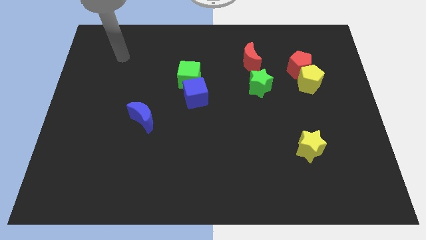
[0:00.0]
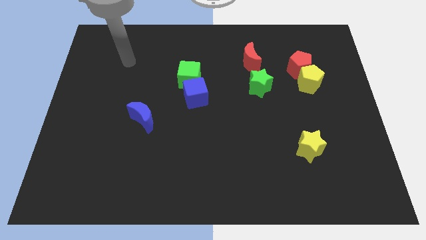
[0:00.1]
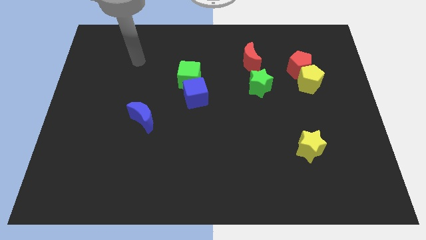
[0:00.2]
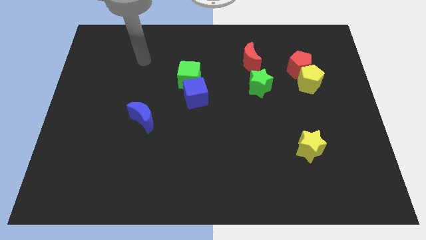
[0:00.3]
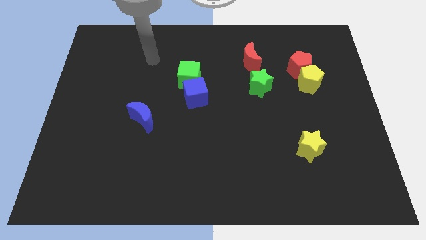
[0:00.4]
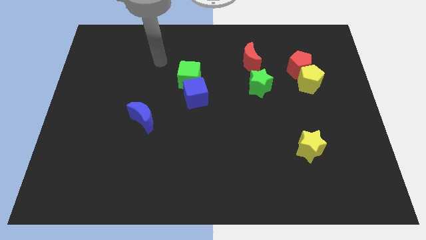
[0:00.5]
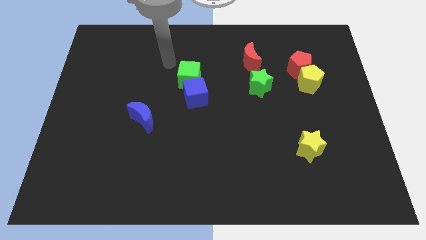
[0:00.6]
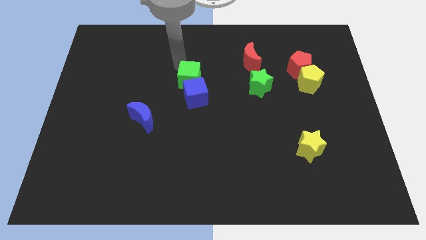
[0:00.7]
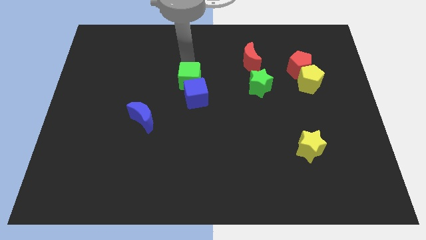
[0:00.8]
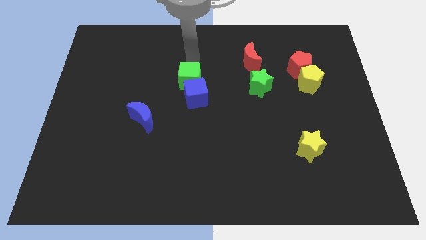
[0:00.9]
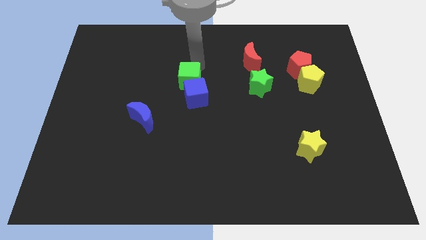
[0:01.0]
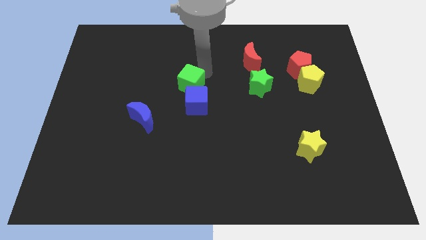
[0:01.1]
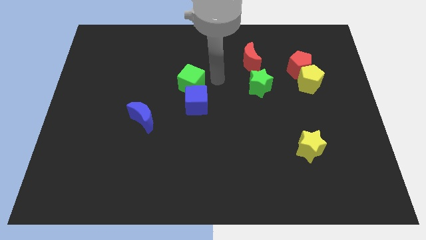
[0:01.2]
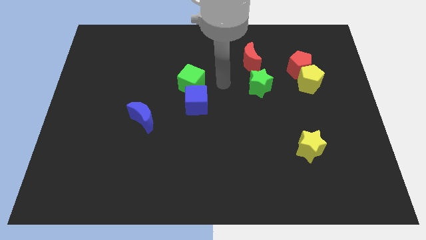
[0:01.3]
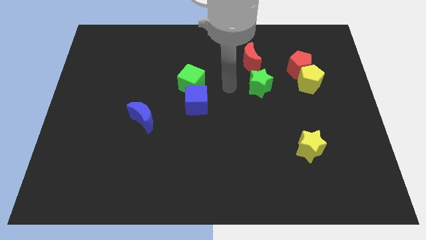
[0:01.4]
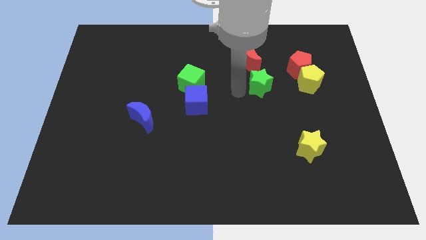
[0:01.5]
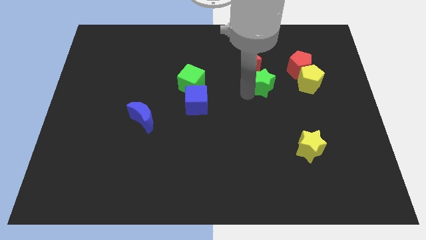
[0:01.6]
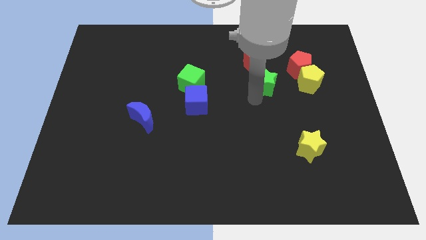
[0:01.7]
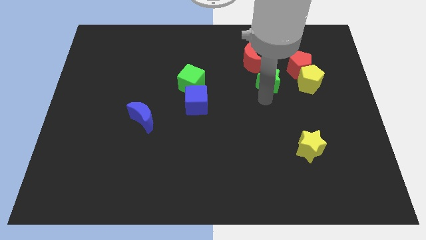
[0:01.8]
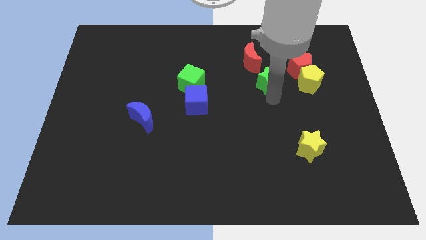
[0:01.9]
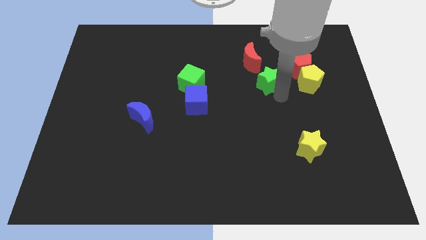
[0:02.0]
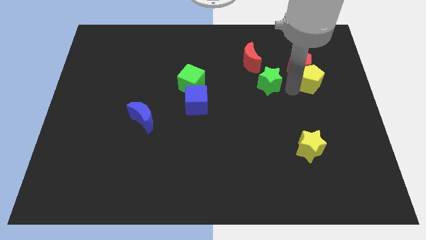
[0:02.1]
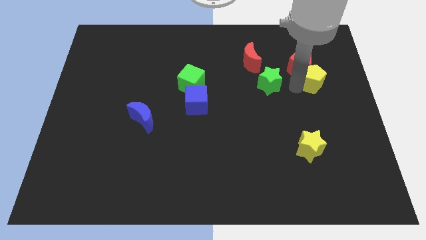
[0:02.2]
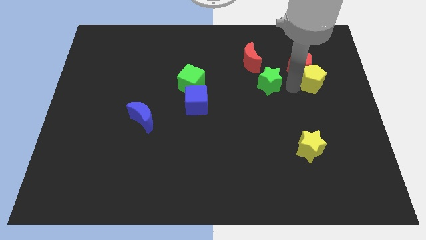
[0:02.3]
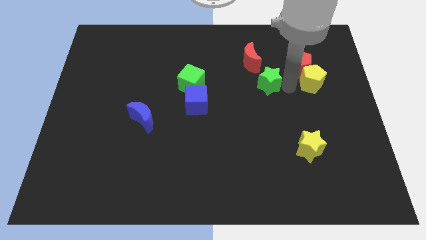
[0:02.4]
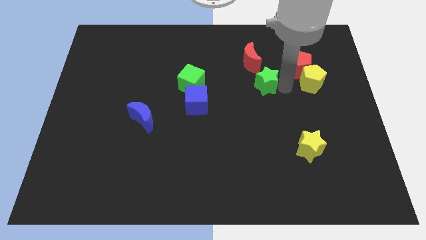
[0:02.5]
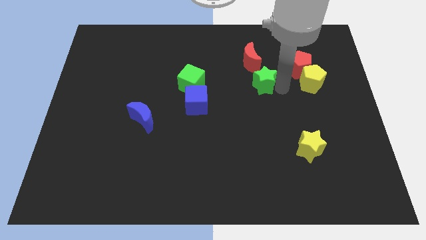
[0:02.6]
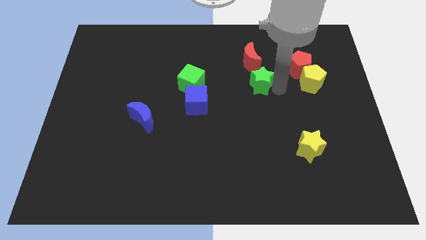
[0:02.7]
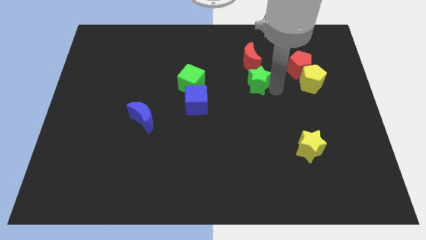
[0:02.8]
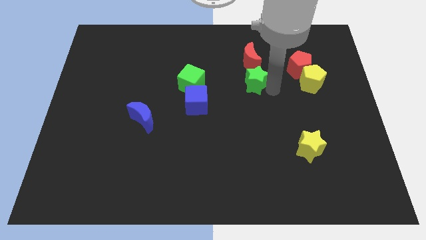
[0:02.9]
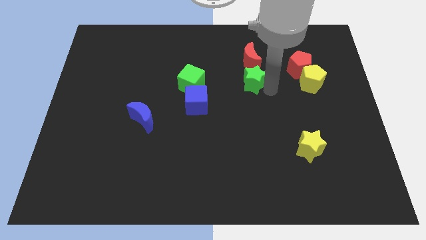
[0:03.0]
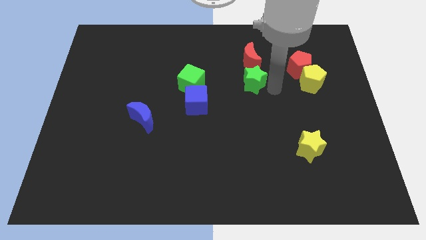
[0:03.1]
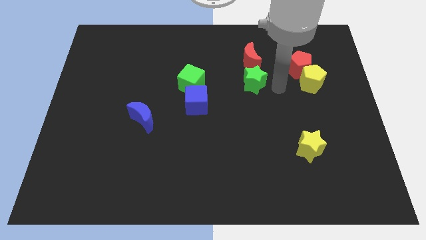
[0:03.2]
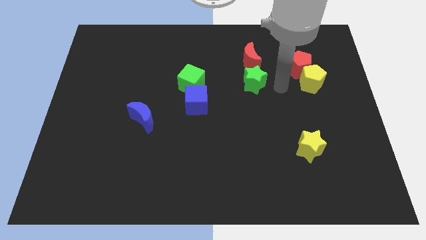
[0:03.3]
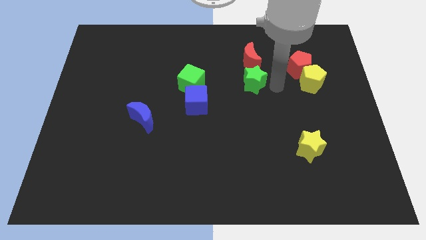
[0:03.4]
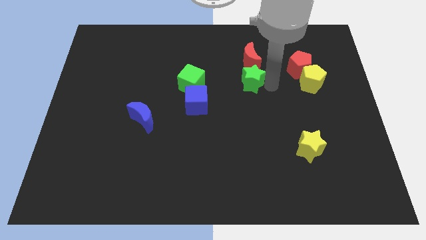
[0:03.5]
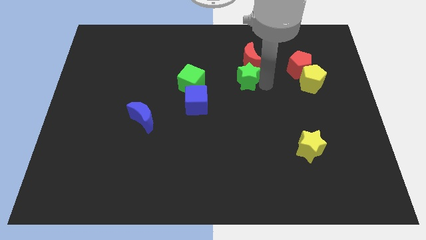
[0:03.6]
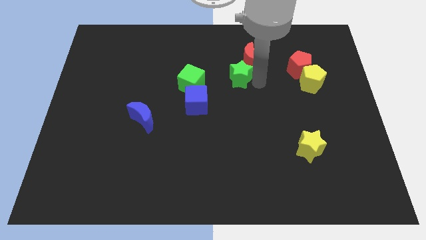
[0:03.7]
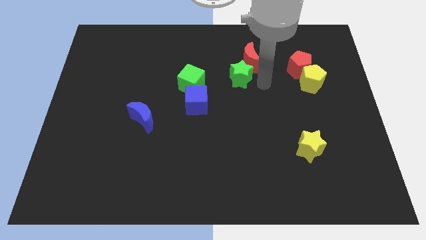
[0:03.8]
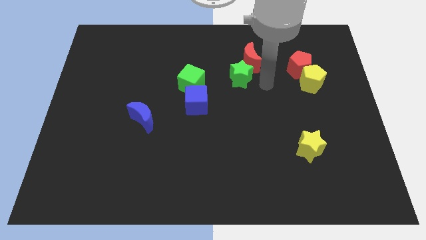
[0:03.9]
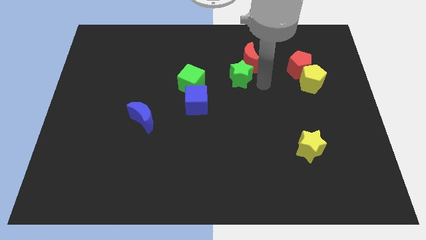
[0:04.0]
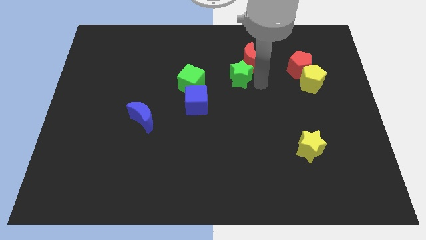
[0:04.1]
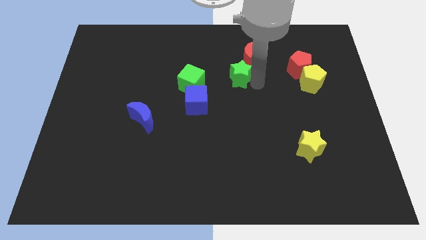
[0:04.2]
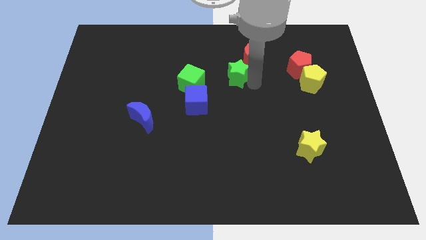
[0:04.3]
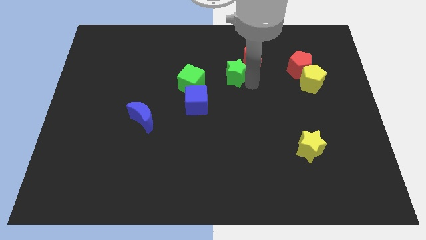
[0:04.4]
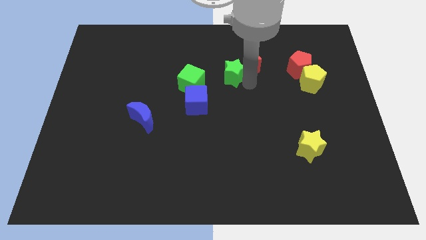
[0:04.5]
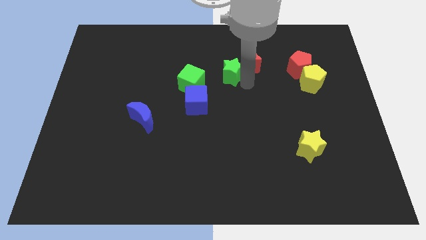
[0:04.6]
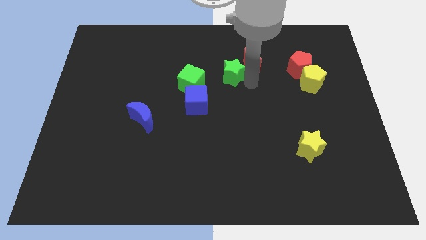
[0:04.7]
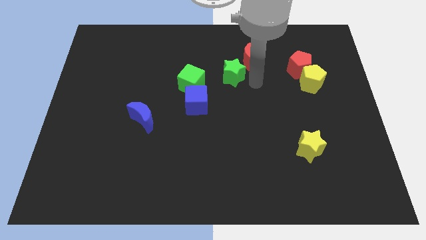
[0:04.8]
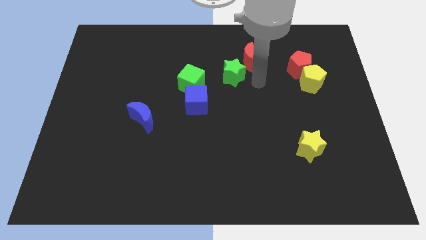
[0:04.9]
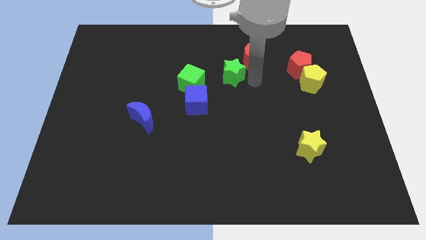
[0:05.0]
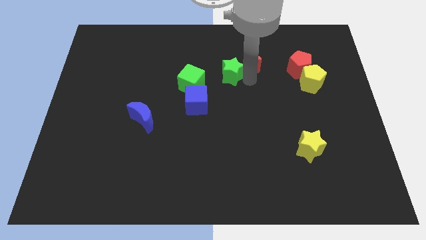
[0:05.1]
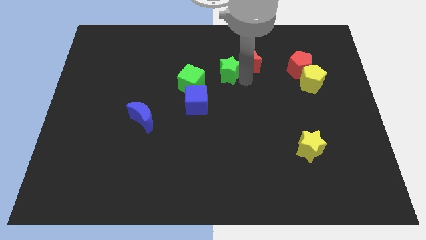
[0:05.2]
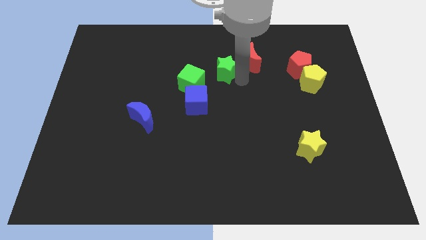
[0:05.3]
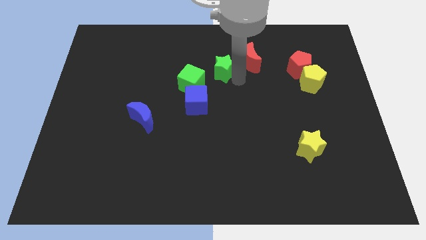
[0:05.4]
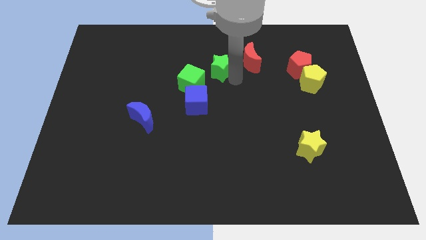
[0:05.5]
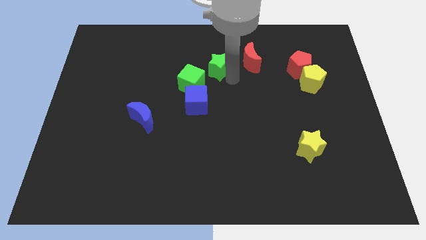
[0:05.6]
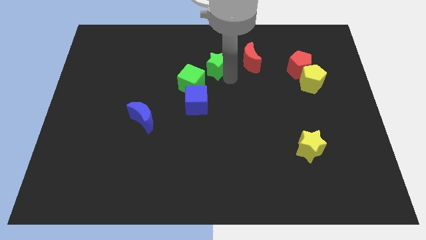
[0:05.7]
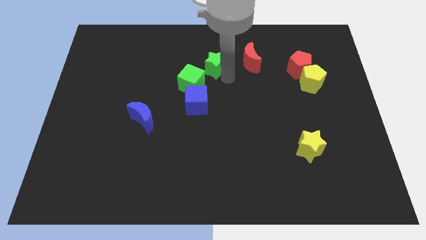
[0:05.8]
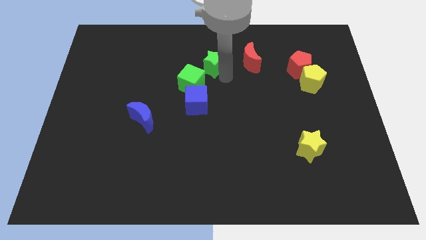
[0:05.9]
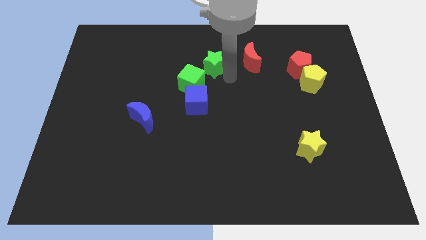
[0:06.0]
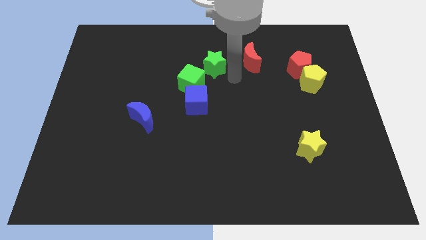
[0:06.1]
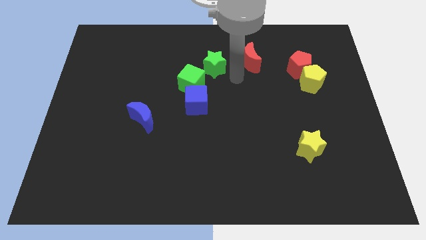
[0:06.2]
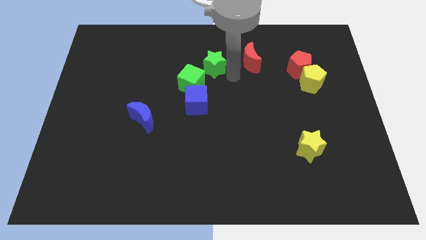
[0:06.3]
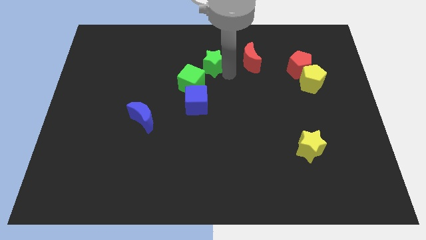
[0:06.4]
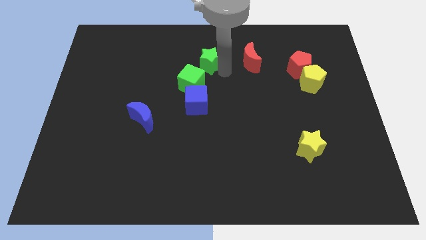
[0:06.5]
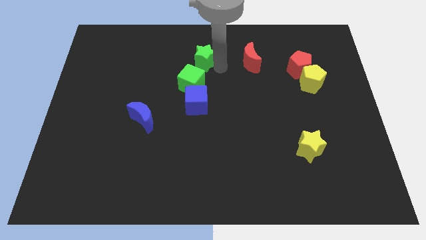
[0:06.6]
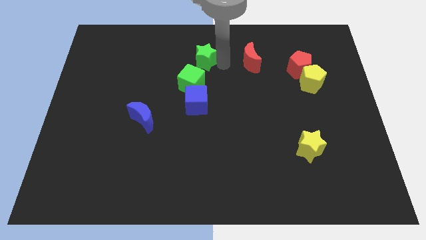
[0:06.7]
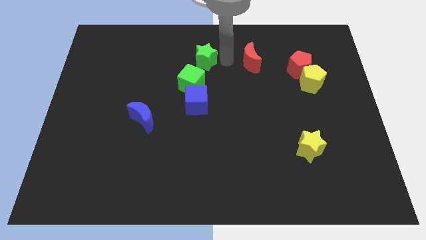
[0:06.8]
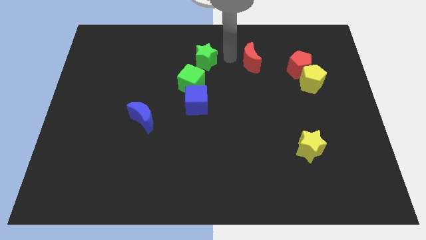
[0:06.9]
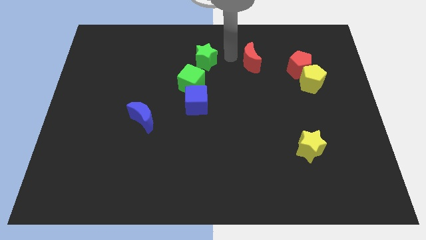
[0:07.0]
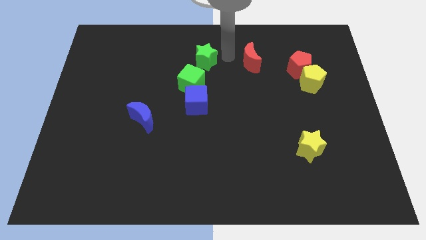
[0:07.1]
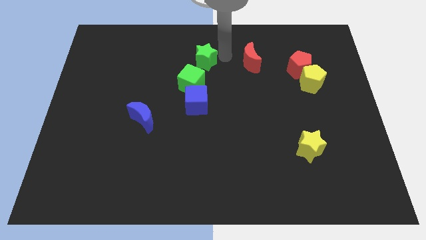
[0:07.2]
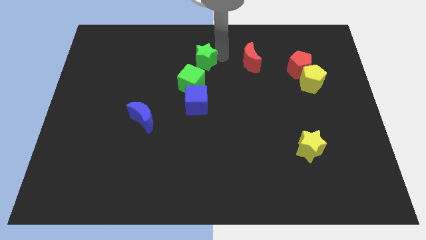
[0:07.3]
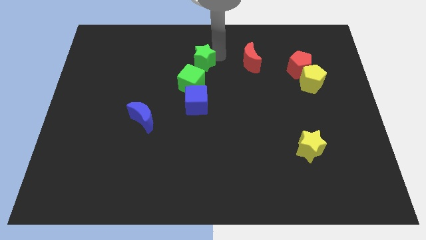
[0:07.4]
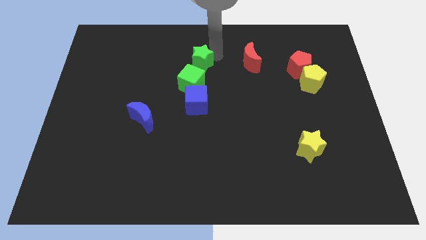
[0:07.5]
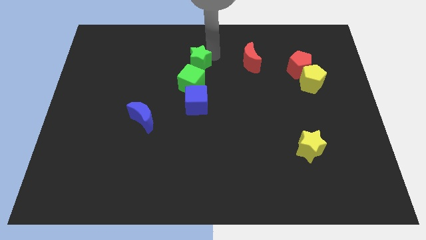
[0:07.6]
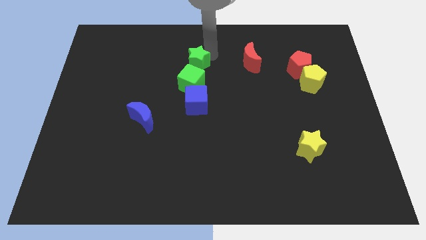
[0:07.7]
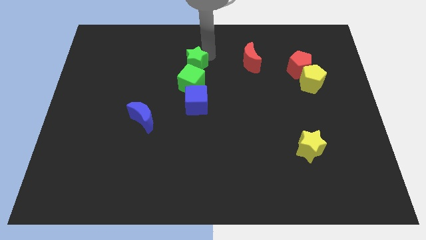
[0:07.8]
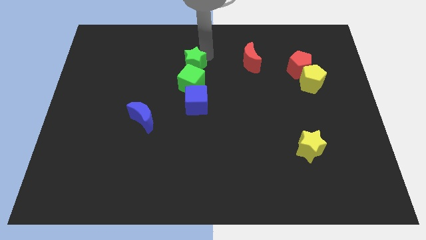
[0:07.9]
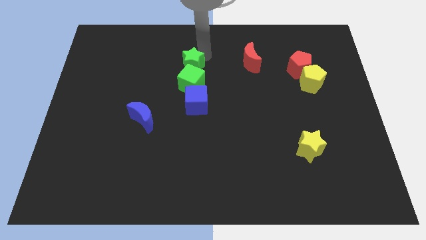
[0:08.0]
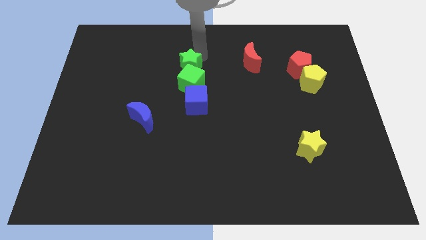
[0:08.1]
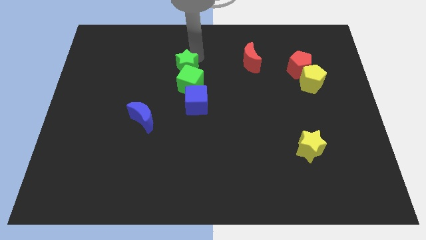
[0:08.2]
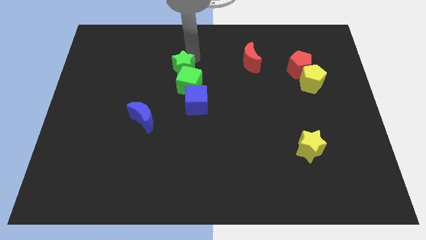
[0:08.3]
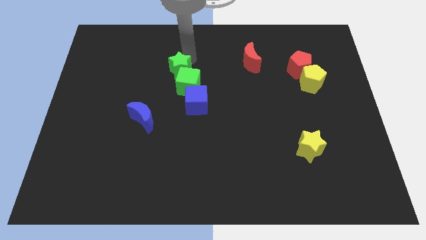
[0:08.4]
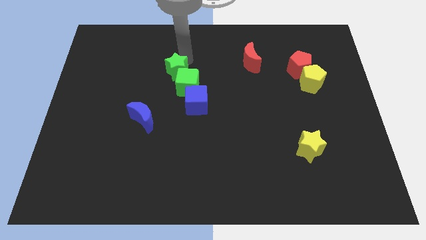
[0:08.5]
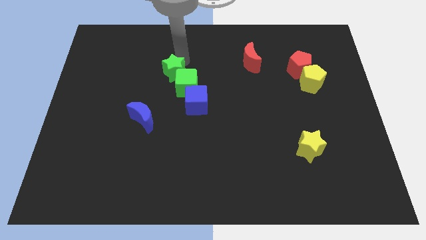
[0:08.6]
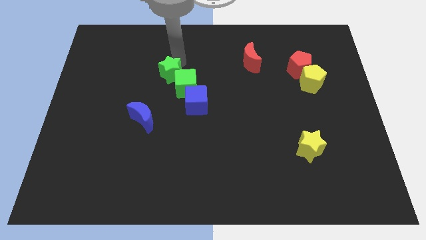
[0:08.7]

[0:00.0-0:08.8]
put the green star left of the green cube
